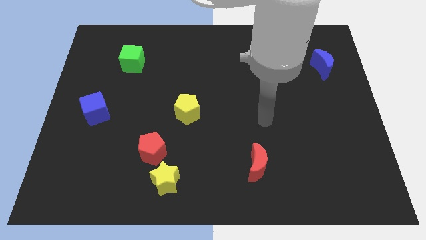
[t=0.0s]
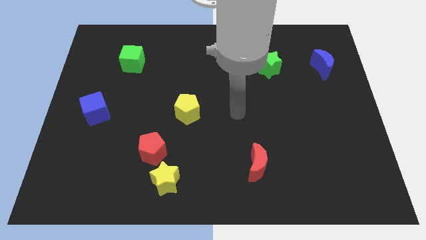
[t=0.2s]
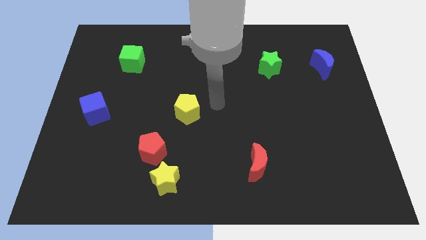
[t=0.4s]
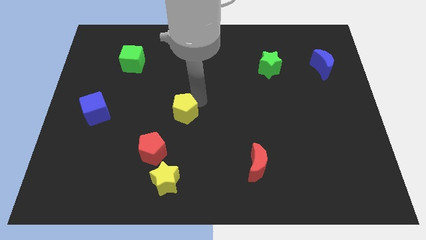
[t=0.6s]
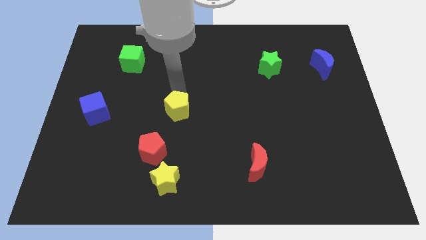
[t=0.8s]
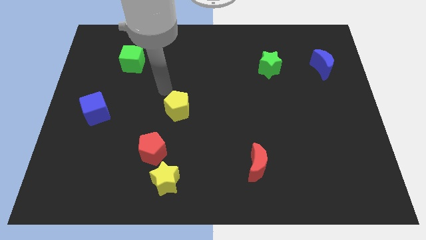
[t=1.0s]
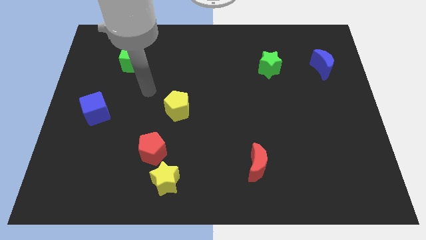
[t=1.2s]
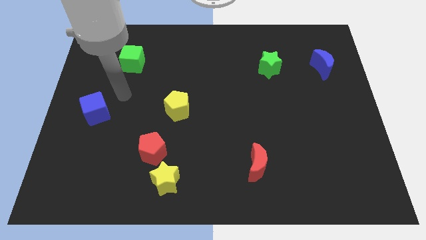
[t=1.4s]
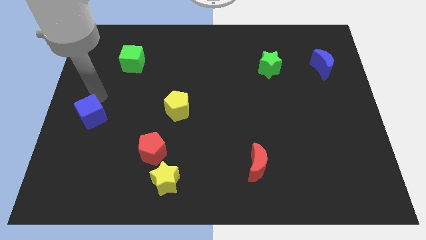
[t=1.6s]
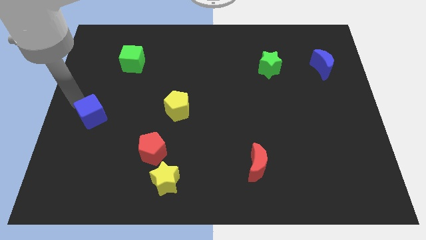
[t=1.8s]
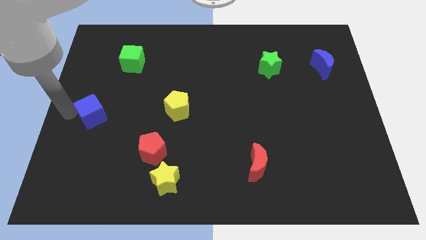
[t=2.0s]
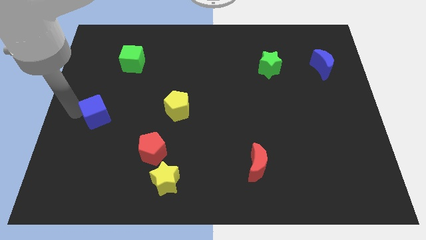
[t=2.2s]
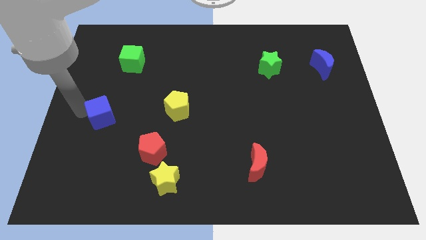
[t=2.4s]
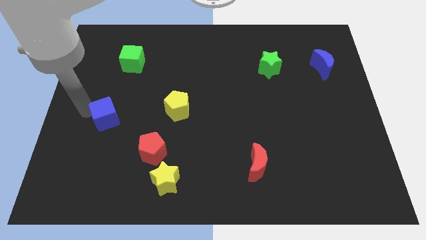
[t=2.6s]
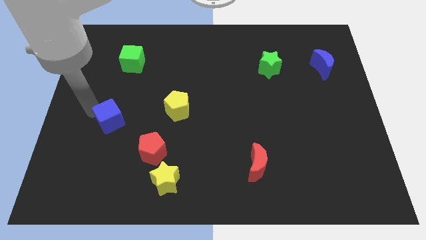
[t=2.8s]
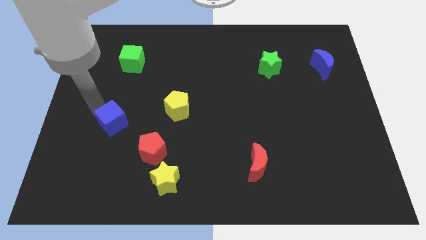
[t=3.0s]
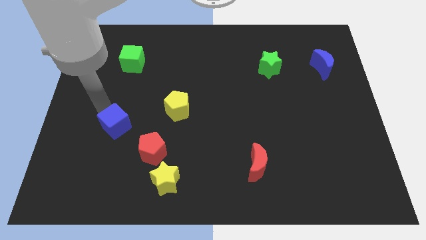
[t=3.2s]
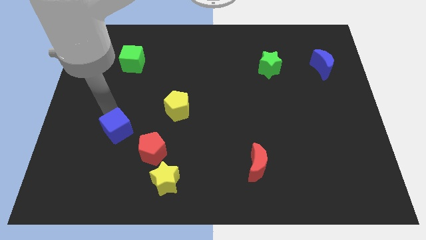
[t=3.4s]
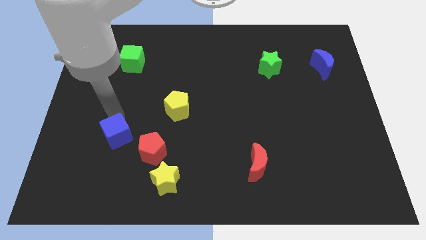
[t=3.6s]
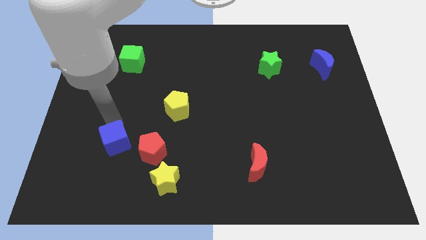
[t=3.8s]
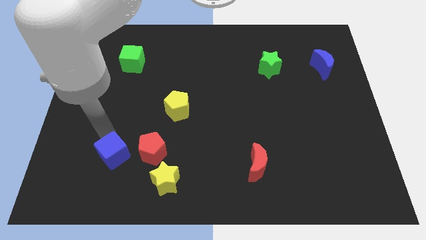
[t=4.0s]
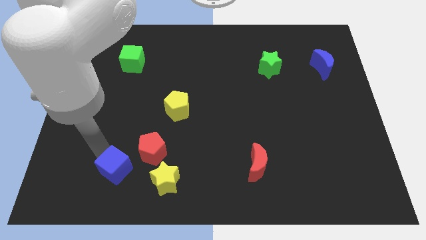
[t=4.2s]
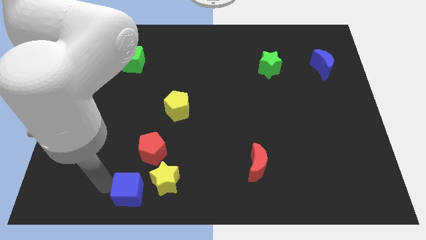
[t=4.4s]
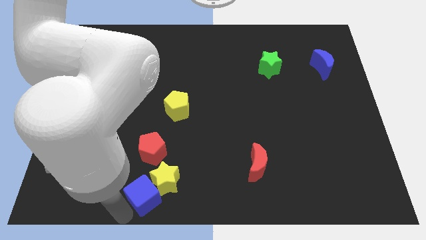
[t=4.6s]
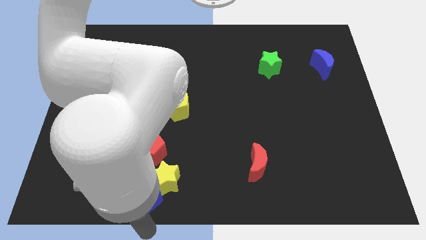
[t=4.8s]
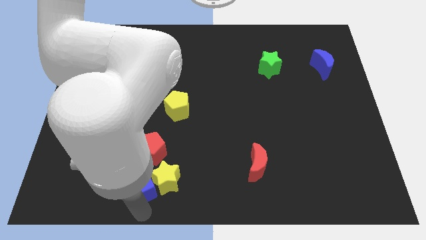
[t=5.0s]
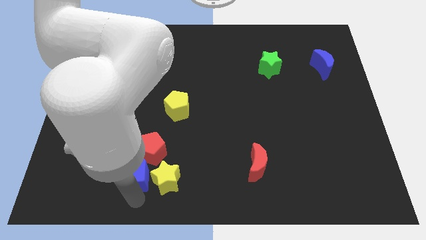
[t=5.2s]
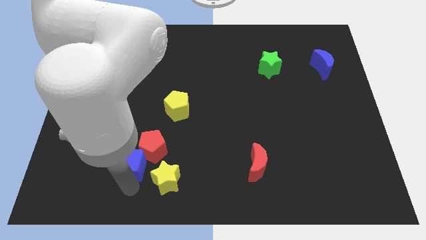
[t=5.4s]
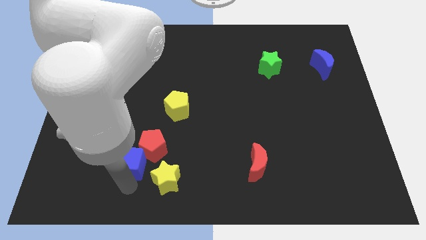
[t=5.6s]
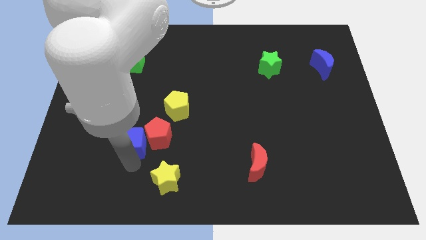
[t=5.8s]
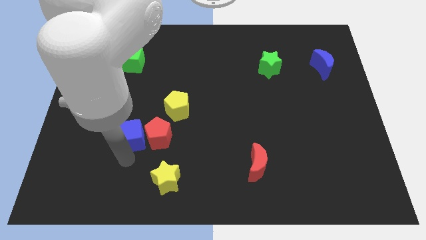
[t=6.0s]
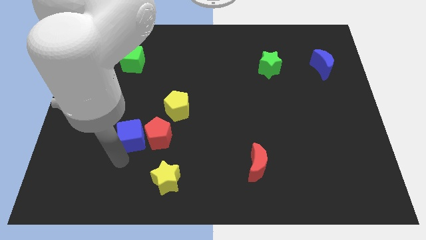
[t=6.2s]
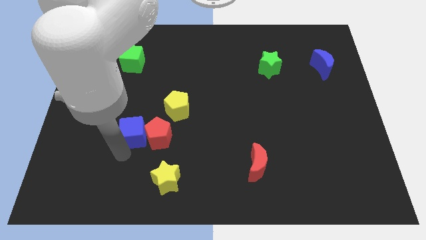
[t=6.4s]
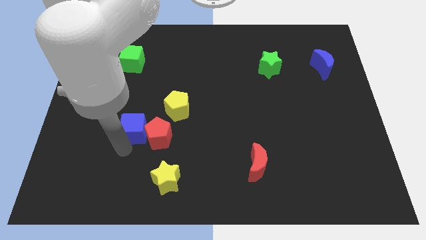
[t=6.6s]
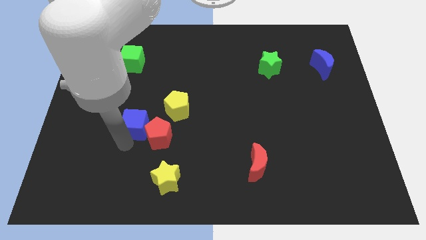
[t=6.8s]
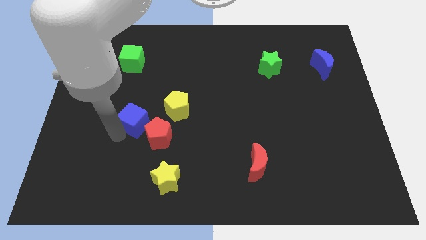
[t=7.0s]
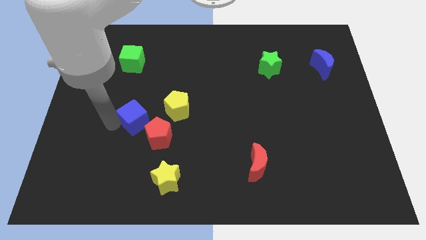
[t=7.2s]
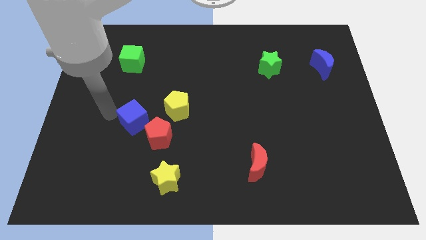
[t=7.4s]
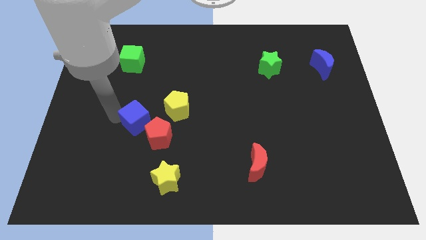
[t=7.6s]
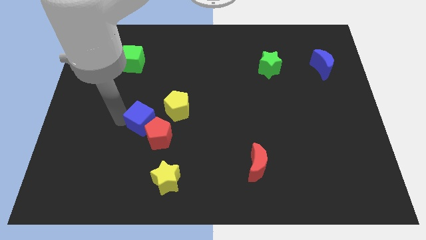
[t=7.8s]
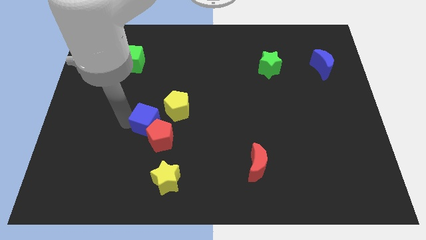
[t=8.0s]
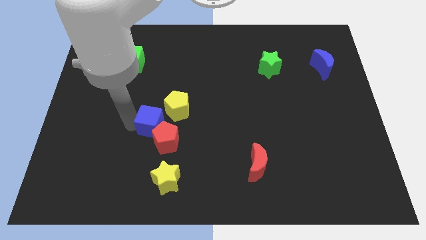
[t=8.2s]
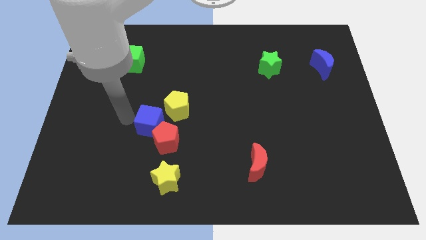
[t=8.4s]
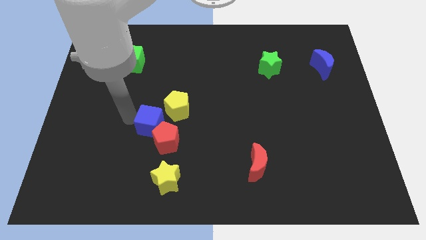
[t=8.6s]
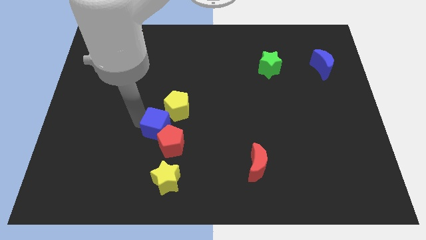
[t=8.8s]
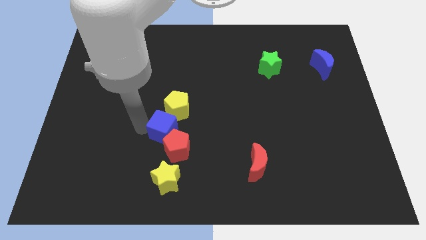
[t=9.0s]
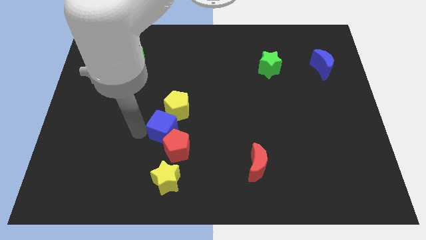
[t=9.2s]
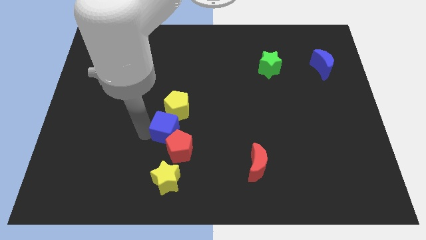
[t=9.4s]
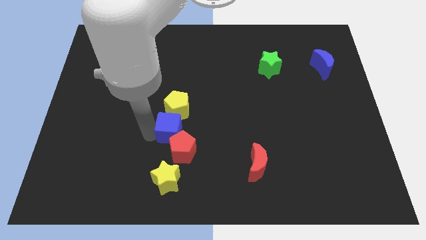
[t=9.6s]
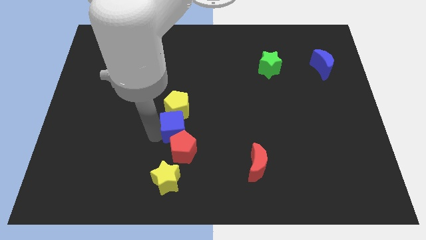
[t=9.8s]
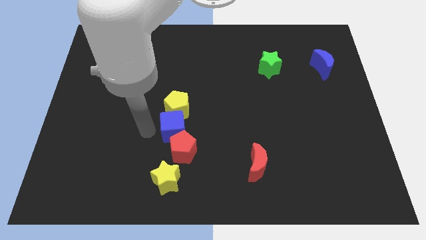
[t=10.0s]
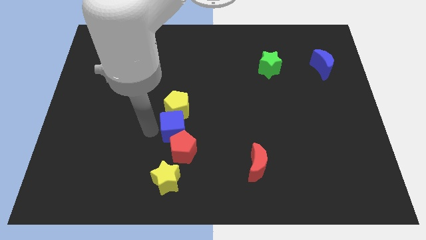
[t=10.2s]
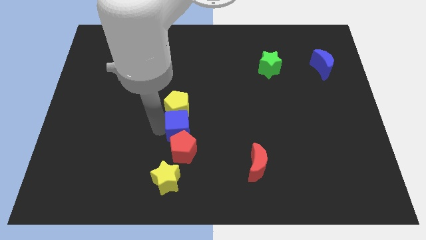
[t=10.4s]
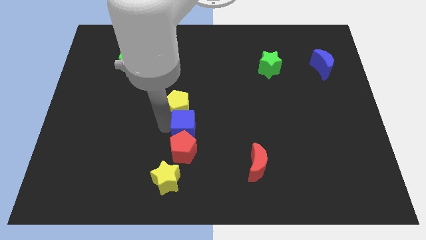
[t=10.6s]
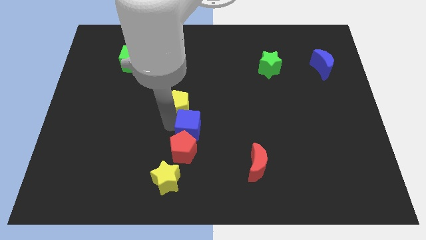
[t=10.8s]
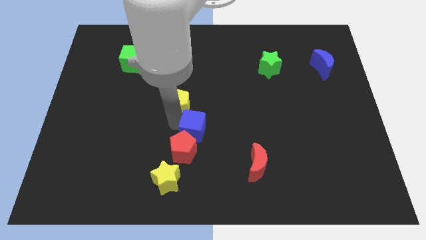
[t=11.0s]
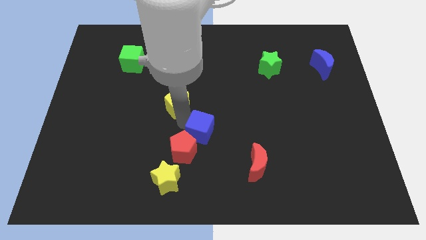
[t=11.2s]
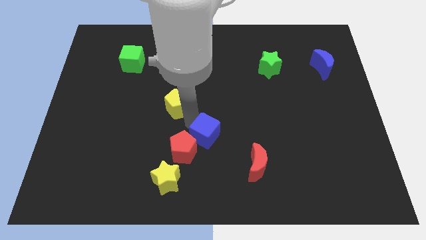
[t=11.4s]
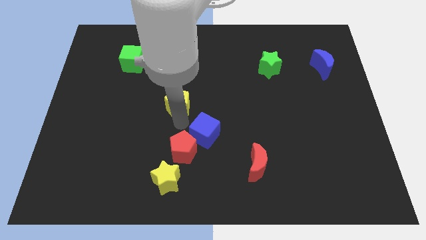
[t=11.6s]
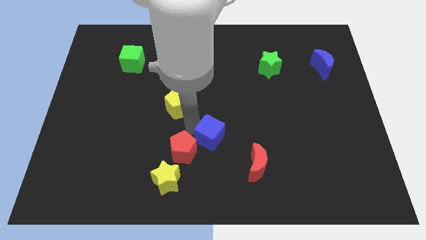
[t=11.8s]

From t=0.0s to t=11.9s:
move the blue cube diagonally up and to the left of the red moon

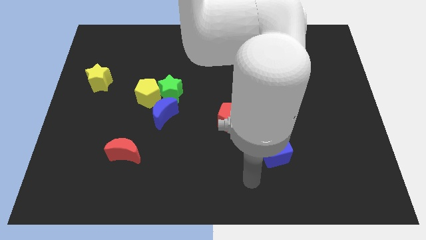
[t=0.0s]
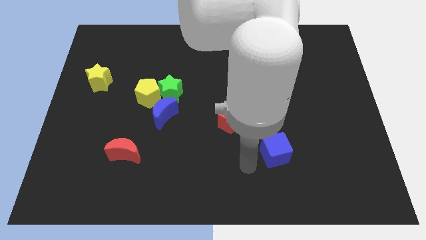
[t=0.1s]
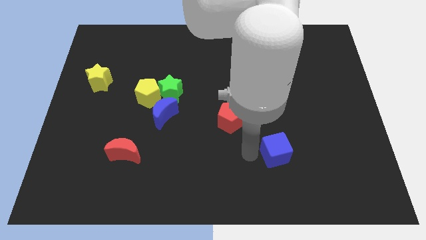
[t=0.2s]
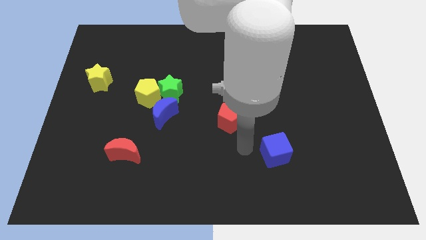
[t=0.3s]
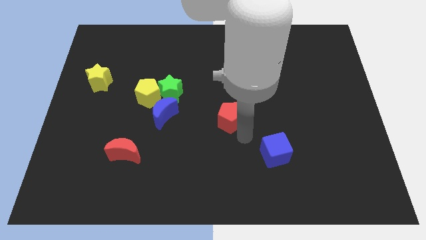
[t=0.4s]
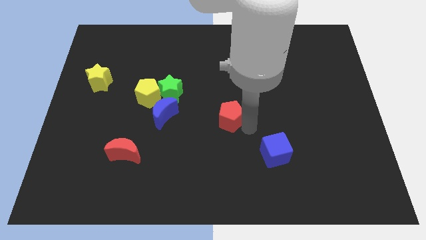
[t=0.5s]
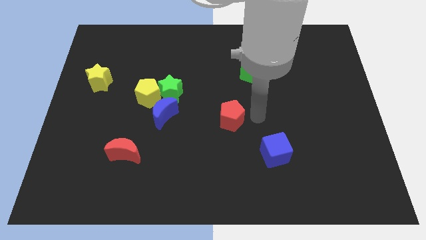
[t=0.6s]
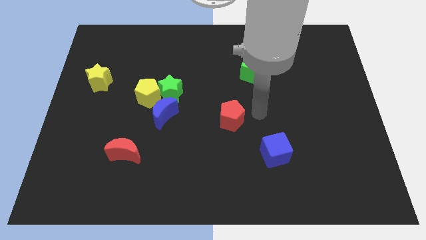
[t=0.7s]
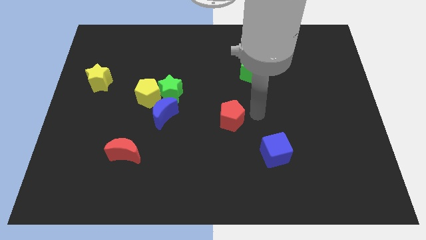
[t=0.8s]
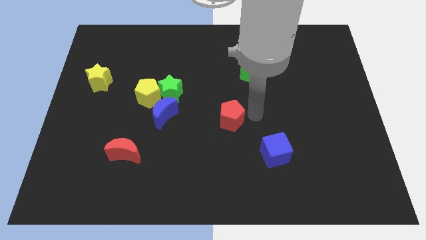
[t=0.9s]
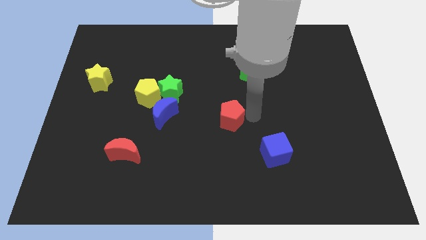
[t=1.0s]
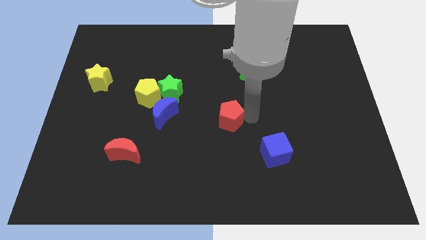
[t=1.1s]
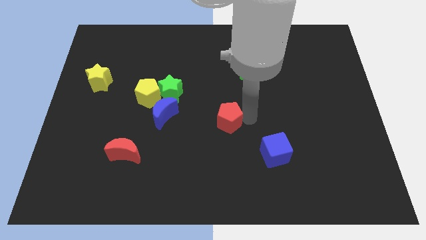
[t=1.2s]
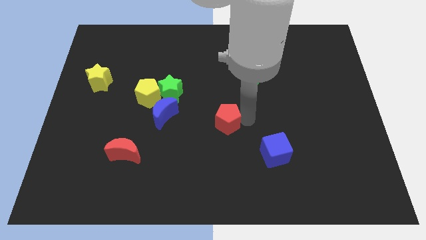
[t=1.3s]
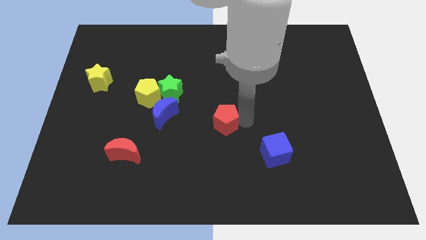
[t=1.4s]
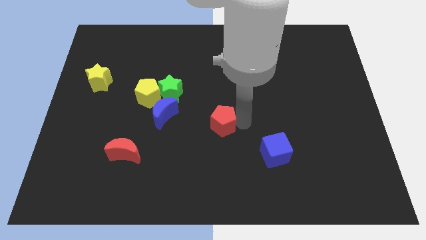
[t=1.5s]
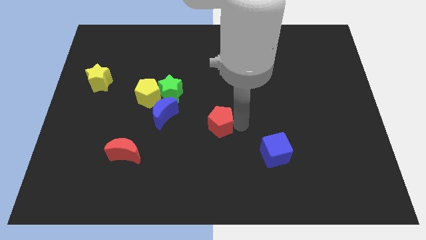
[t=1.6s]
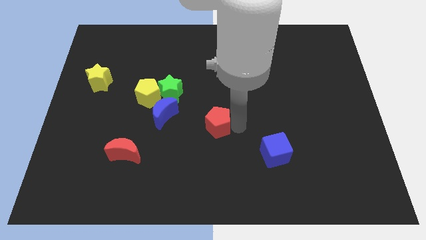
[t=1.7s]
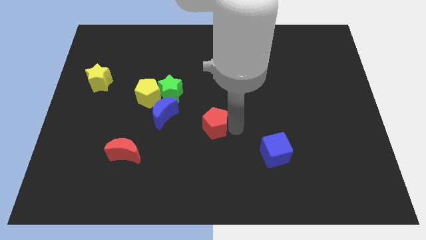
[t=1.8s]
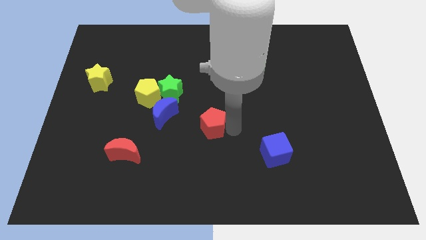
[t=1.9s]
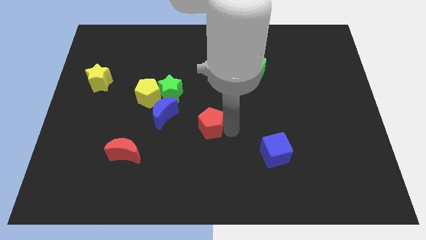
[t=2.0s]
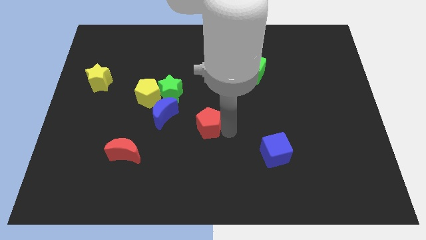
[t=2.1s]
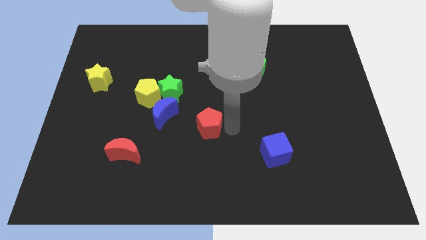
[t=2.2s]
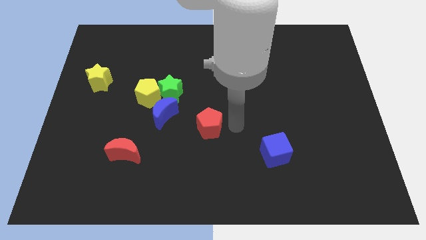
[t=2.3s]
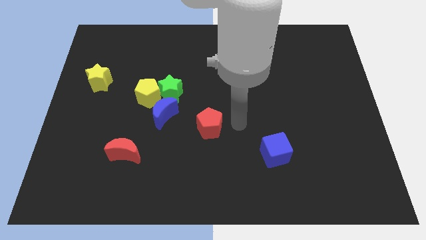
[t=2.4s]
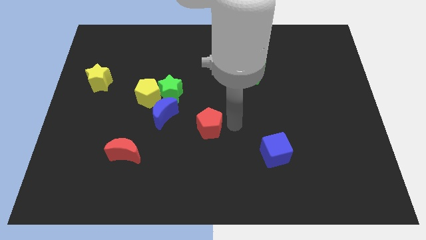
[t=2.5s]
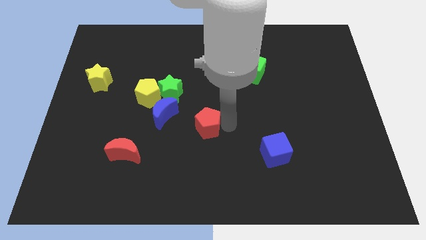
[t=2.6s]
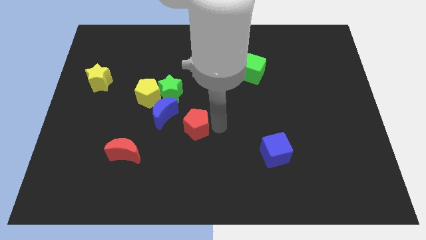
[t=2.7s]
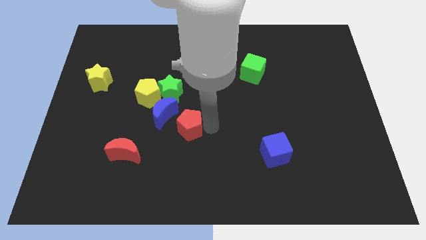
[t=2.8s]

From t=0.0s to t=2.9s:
move the red pentagon to the bottom side of the green star
